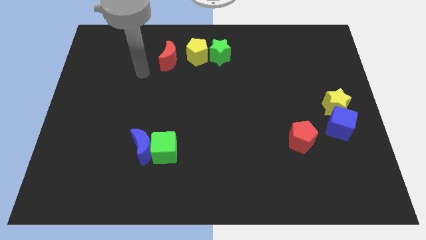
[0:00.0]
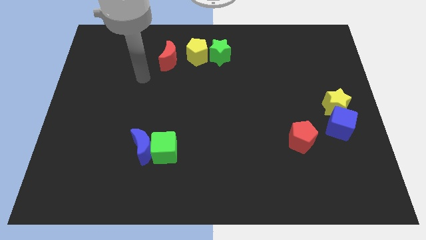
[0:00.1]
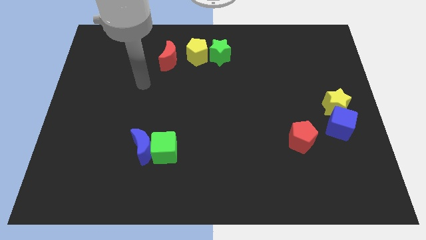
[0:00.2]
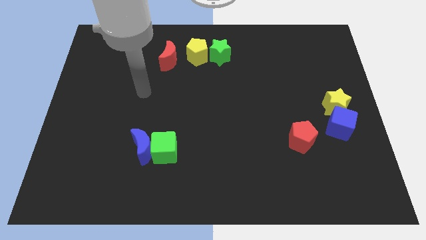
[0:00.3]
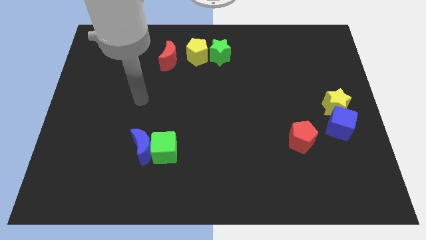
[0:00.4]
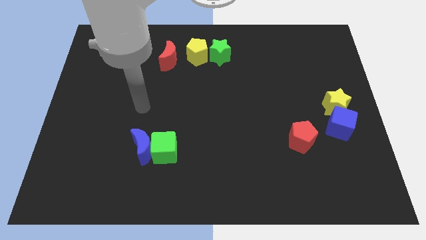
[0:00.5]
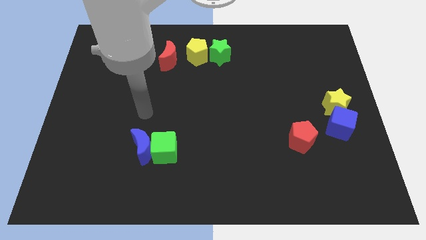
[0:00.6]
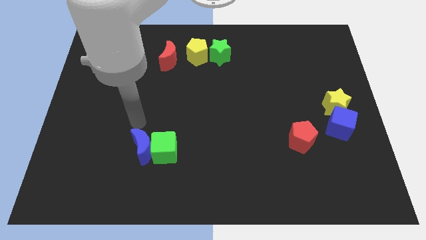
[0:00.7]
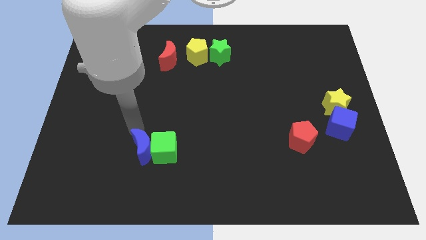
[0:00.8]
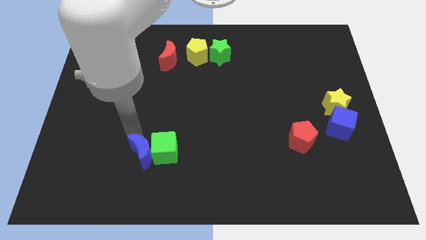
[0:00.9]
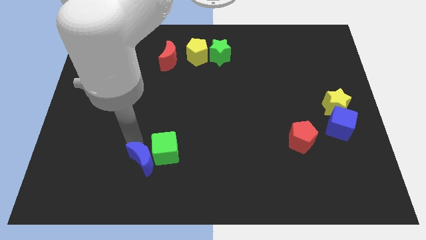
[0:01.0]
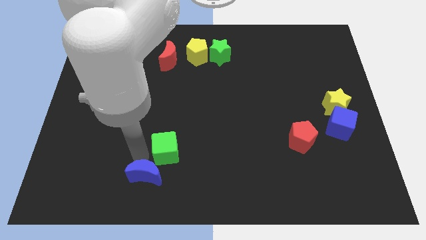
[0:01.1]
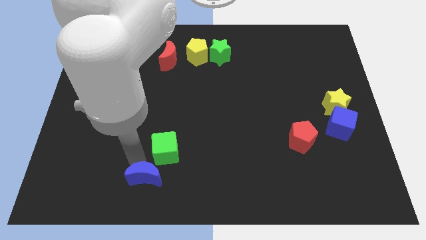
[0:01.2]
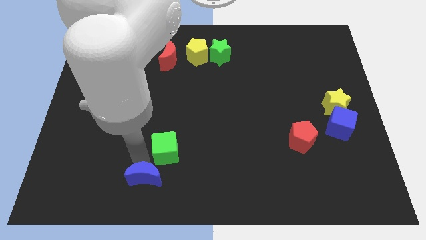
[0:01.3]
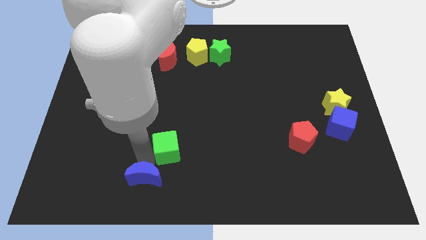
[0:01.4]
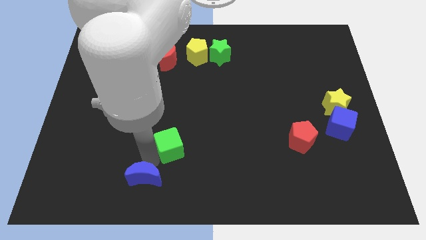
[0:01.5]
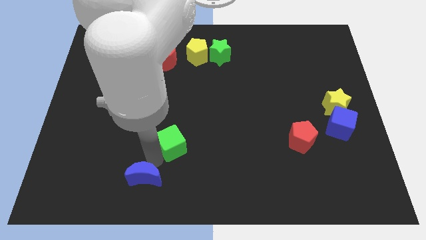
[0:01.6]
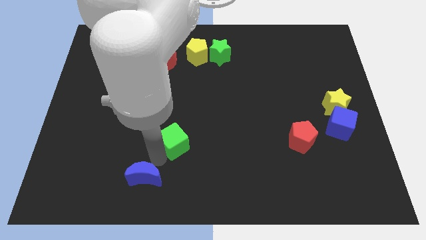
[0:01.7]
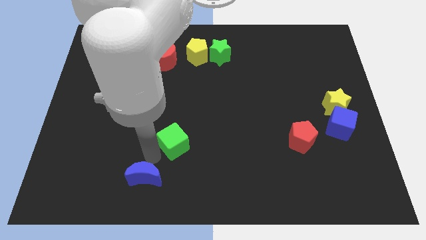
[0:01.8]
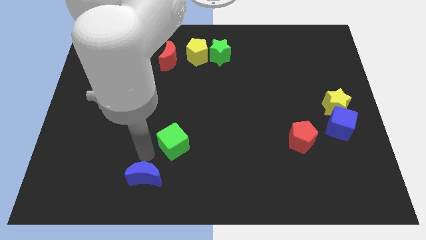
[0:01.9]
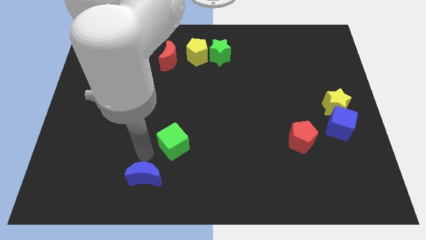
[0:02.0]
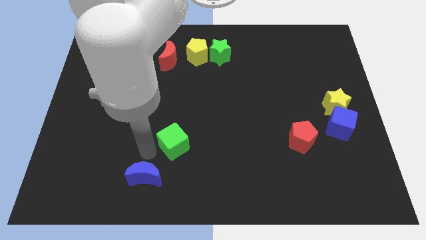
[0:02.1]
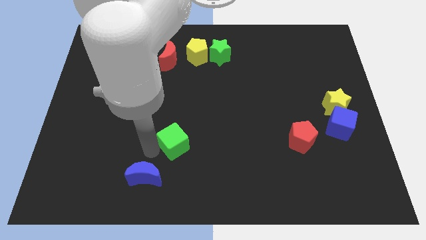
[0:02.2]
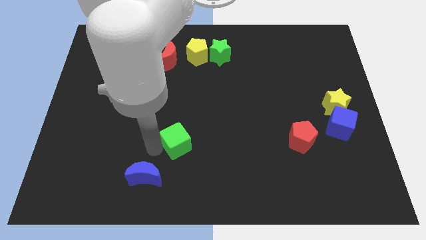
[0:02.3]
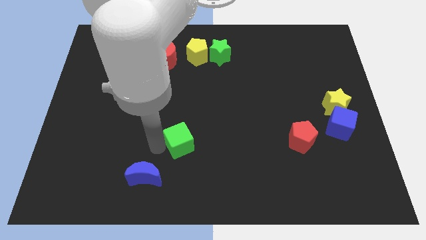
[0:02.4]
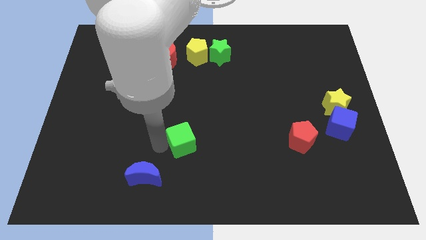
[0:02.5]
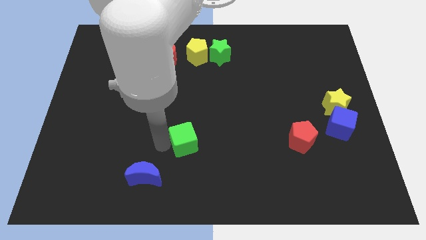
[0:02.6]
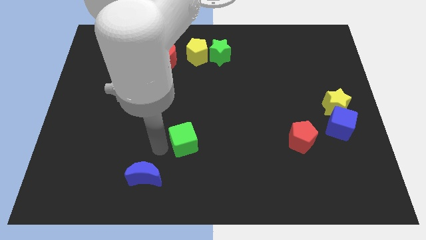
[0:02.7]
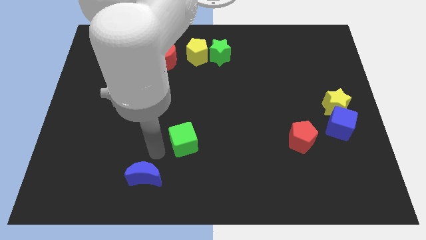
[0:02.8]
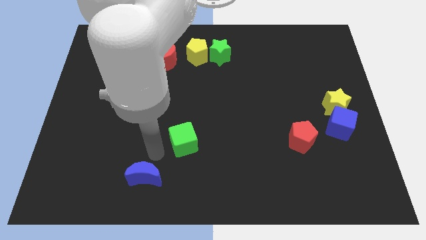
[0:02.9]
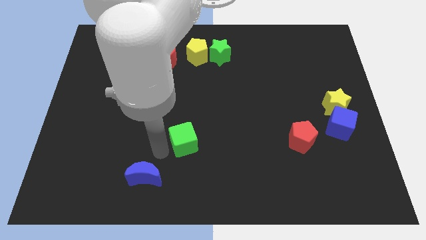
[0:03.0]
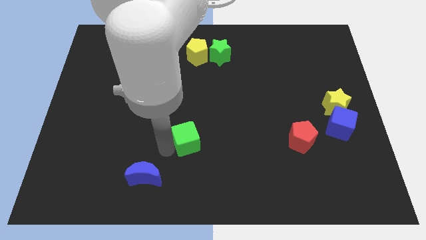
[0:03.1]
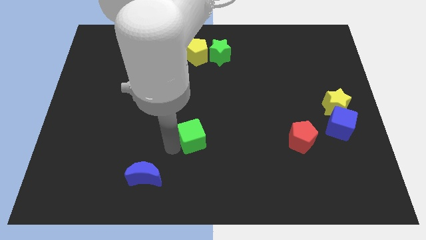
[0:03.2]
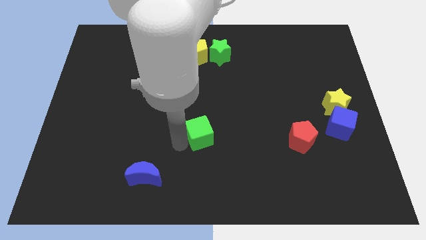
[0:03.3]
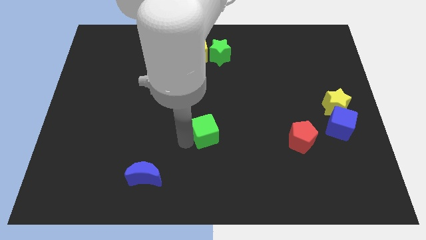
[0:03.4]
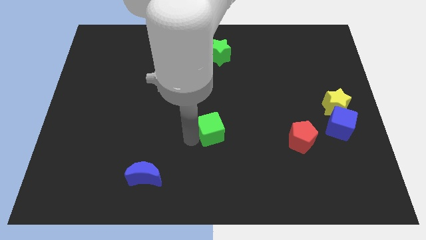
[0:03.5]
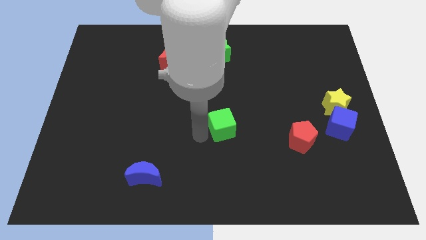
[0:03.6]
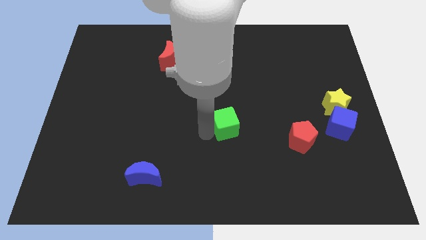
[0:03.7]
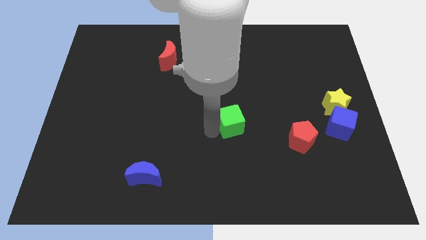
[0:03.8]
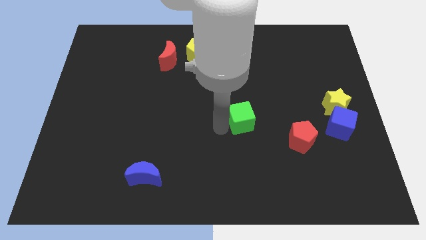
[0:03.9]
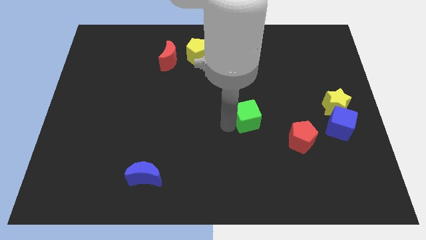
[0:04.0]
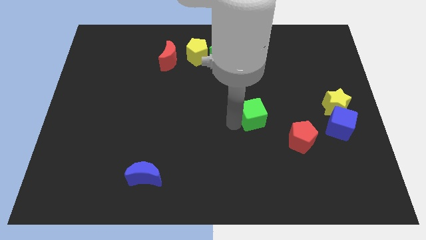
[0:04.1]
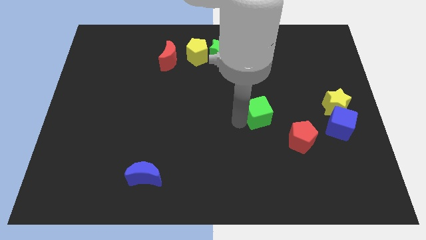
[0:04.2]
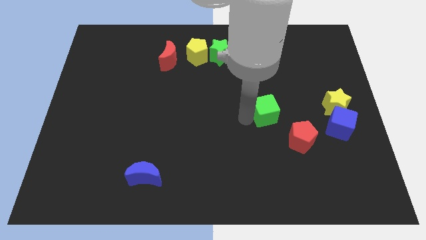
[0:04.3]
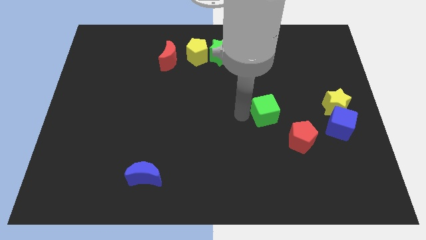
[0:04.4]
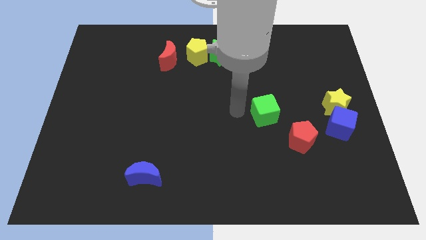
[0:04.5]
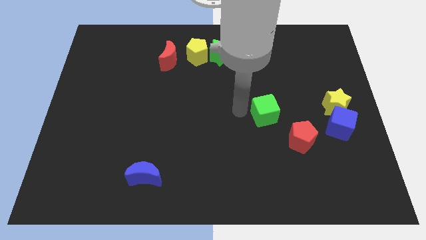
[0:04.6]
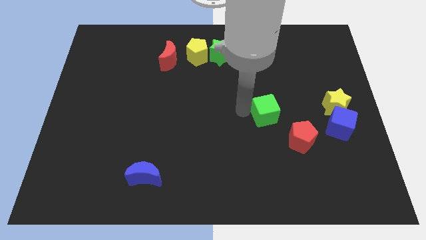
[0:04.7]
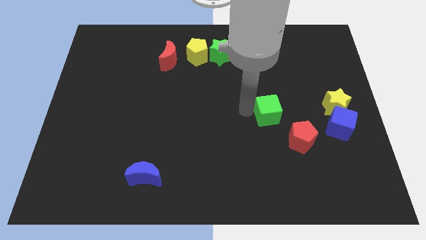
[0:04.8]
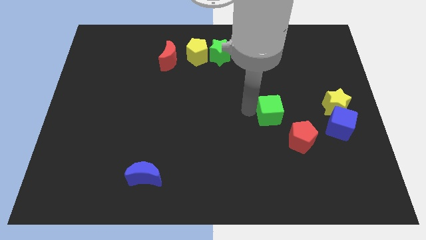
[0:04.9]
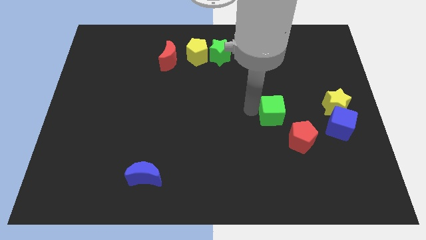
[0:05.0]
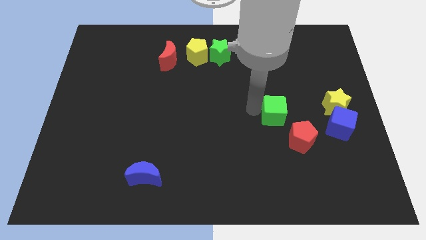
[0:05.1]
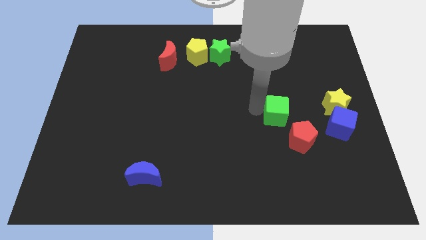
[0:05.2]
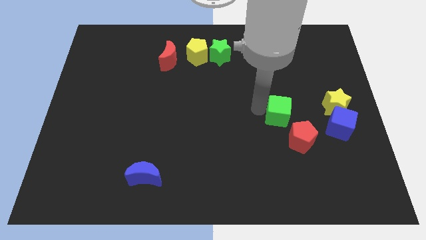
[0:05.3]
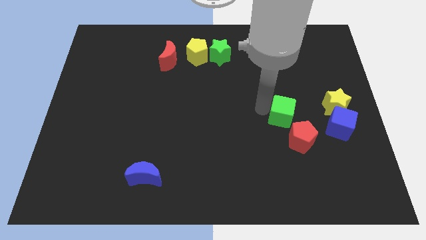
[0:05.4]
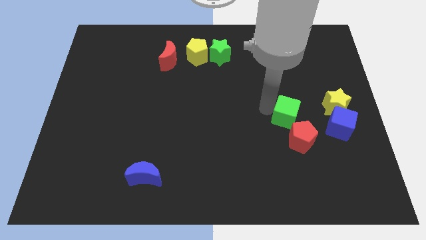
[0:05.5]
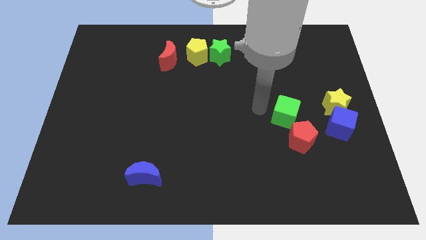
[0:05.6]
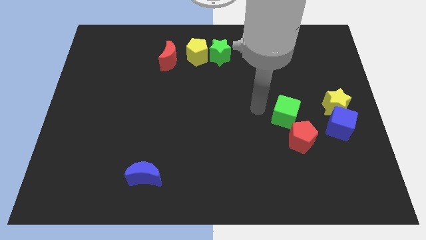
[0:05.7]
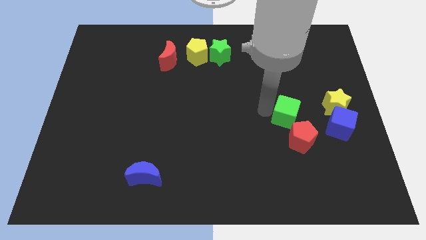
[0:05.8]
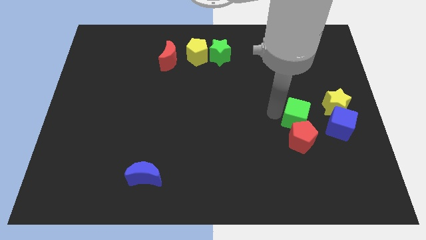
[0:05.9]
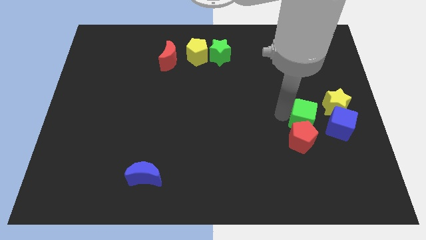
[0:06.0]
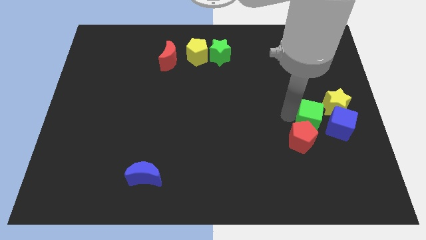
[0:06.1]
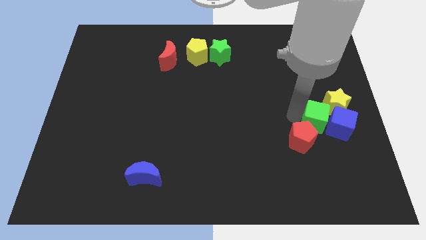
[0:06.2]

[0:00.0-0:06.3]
slide the green cube to the blue cube

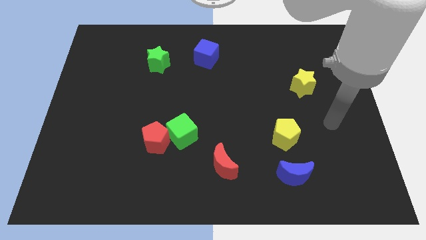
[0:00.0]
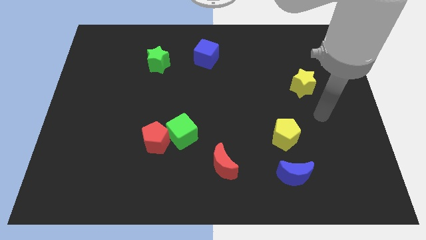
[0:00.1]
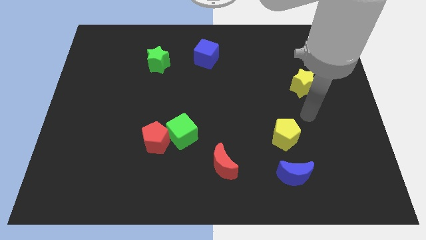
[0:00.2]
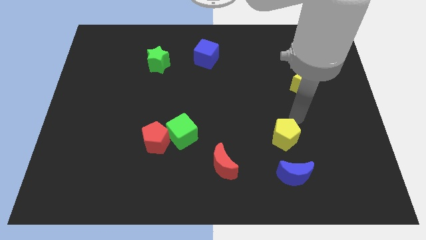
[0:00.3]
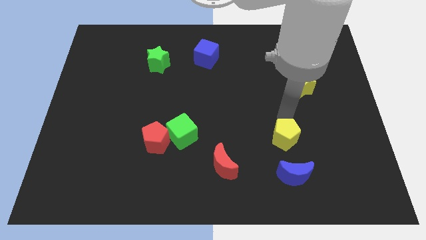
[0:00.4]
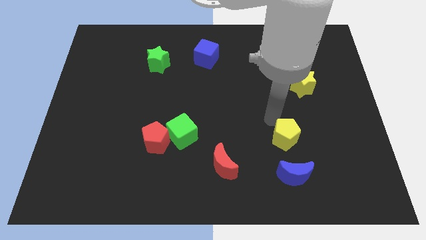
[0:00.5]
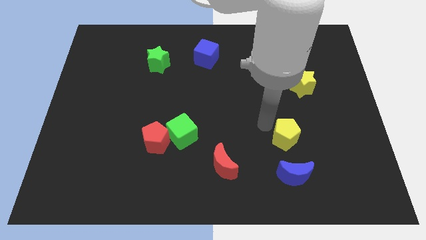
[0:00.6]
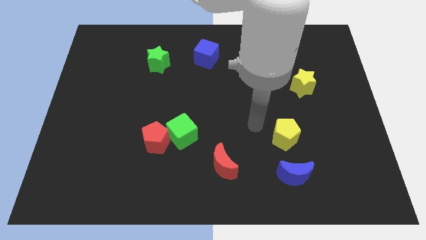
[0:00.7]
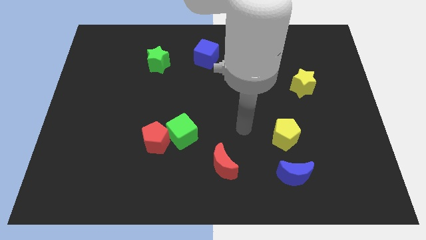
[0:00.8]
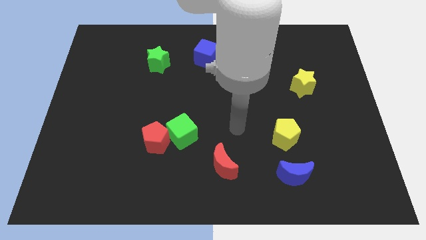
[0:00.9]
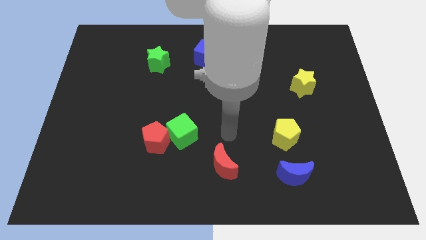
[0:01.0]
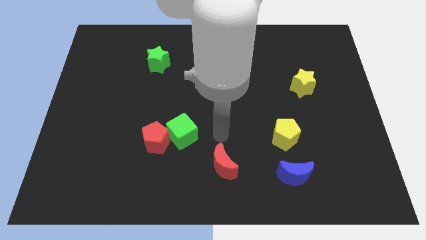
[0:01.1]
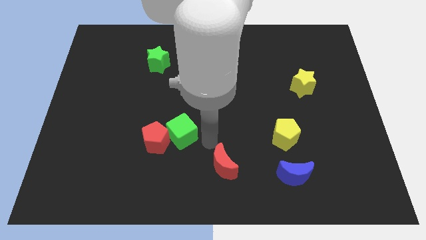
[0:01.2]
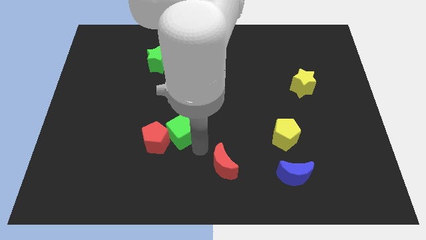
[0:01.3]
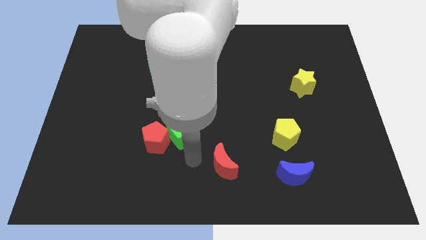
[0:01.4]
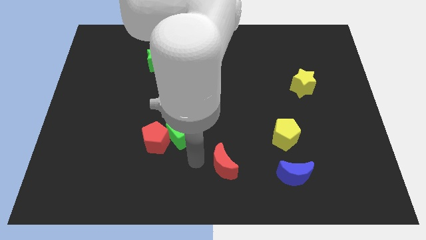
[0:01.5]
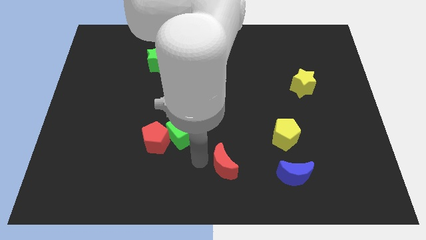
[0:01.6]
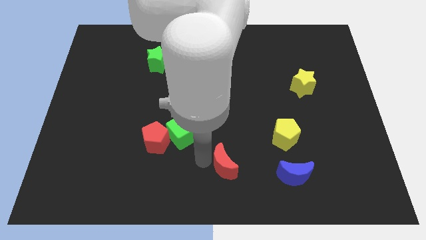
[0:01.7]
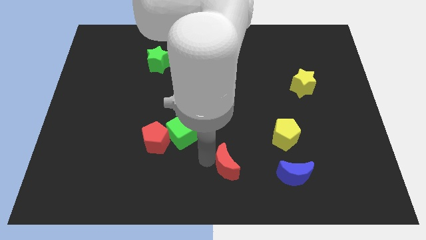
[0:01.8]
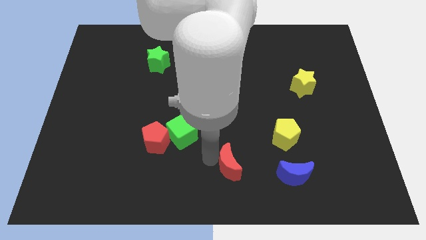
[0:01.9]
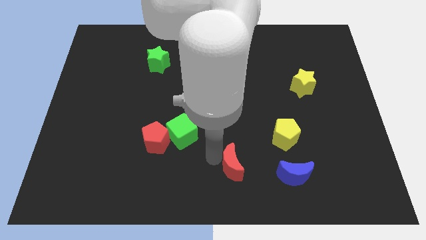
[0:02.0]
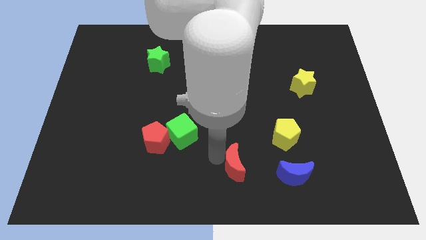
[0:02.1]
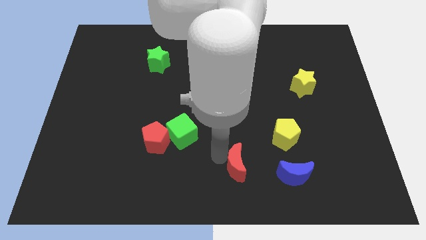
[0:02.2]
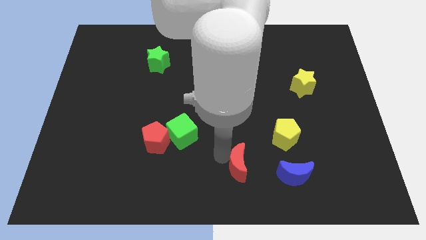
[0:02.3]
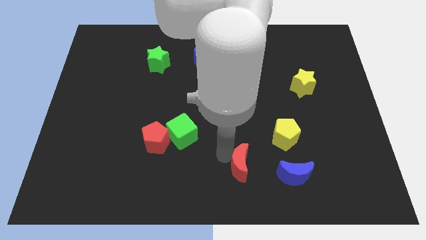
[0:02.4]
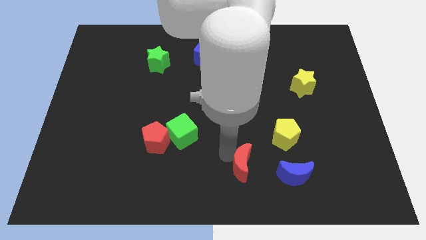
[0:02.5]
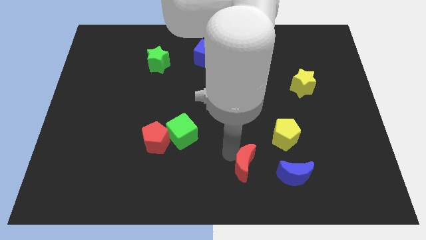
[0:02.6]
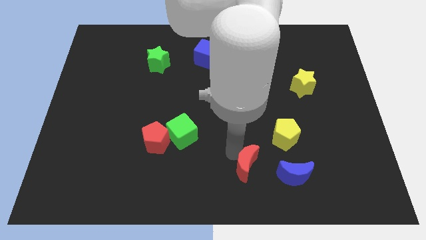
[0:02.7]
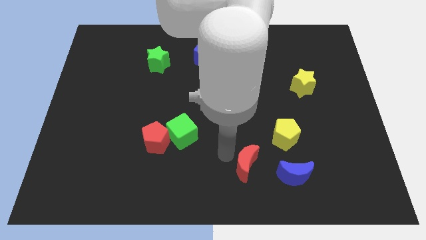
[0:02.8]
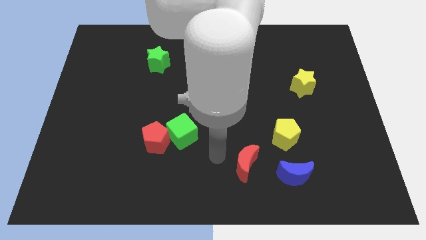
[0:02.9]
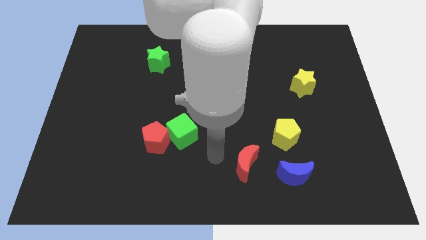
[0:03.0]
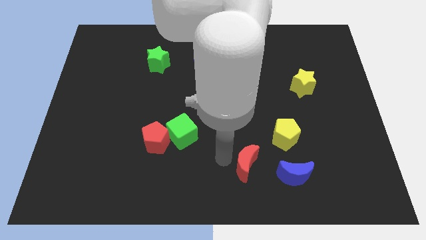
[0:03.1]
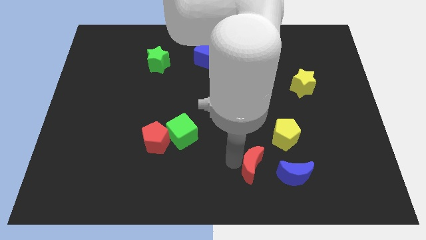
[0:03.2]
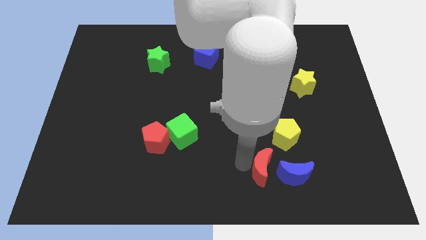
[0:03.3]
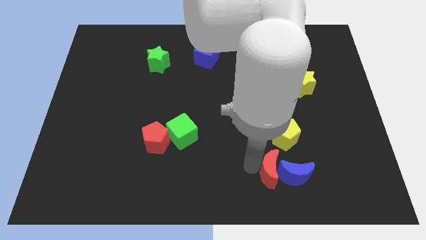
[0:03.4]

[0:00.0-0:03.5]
slide the red moon to the blue moon
